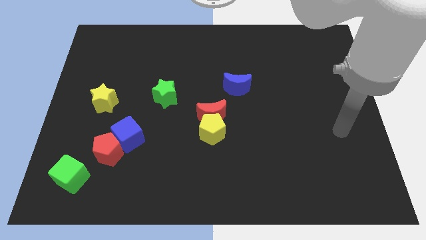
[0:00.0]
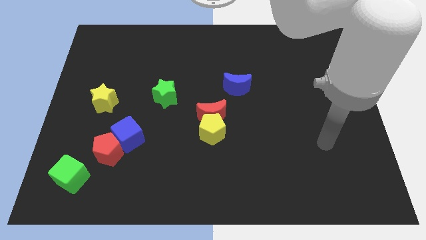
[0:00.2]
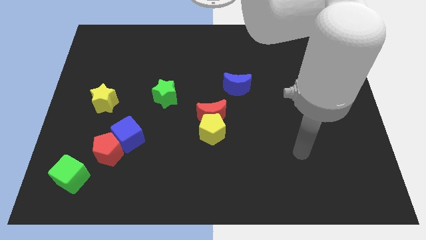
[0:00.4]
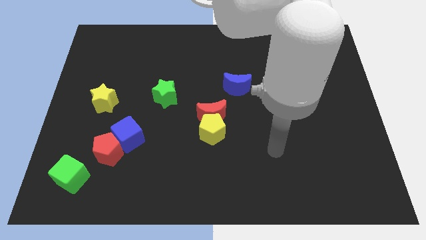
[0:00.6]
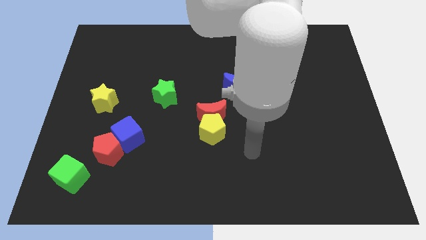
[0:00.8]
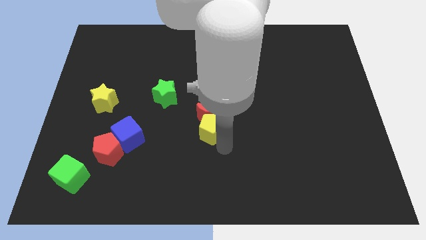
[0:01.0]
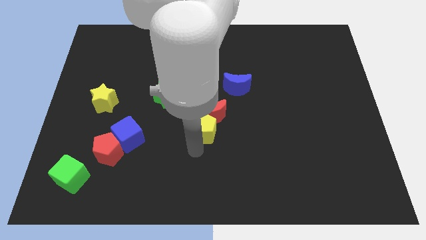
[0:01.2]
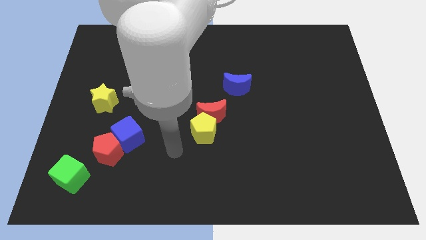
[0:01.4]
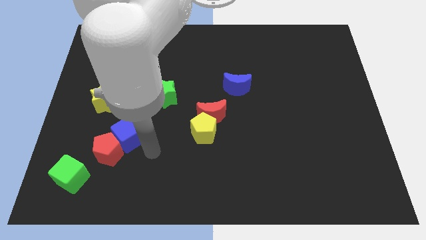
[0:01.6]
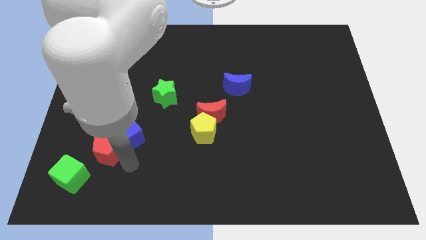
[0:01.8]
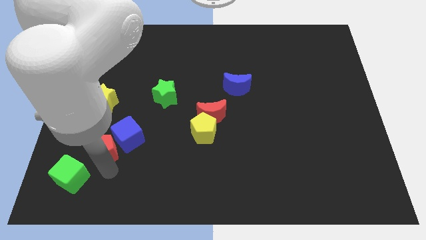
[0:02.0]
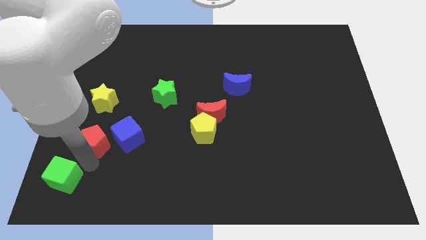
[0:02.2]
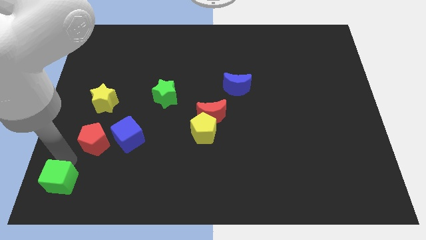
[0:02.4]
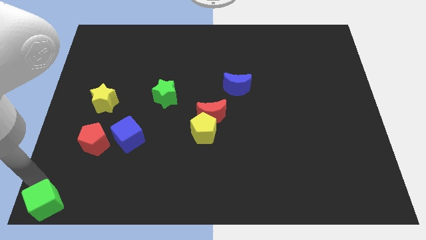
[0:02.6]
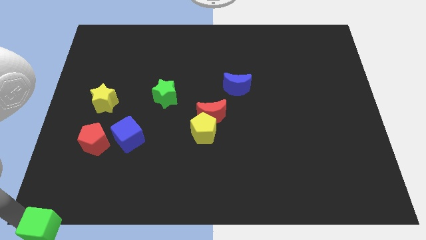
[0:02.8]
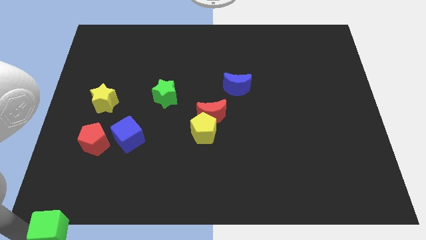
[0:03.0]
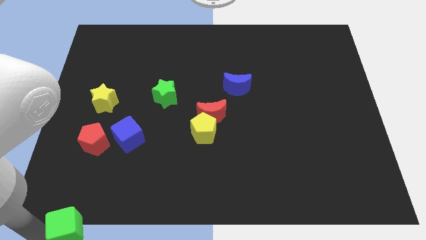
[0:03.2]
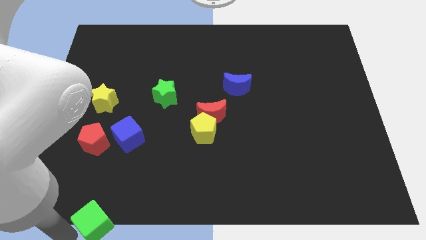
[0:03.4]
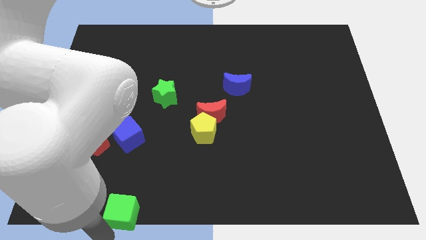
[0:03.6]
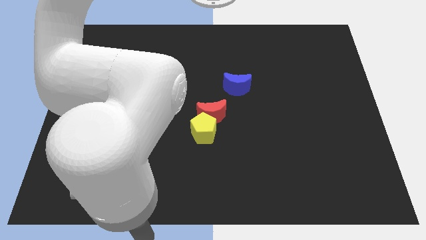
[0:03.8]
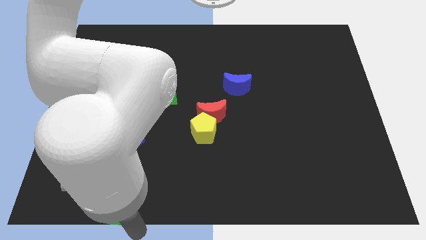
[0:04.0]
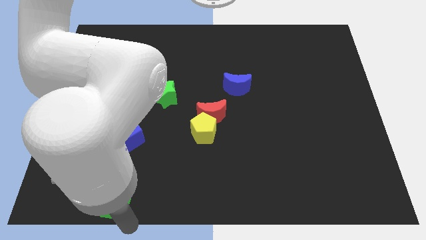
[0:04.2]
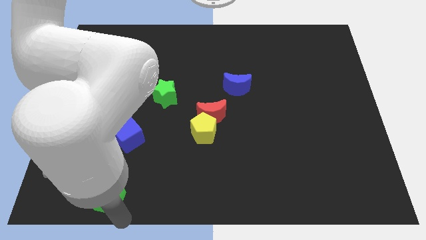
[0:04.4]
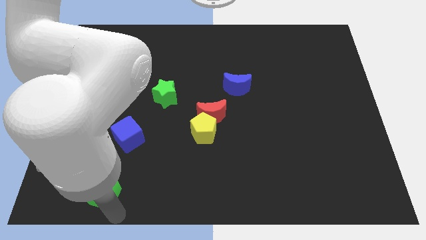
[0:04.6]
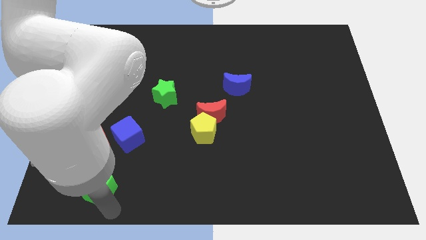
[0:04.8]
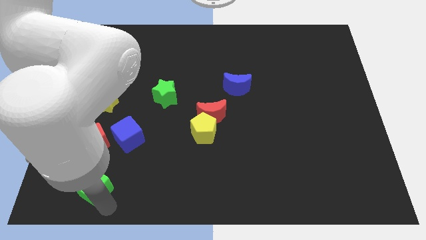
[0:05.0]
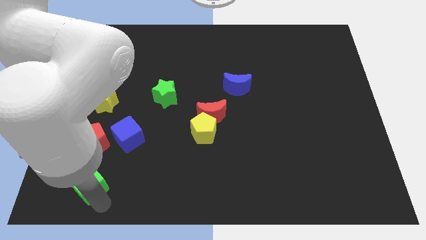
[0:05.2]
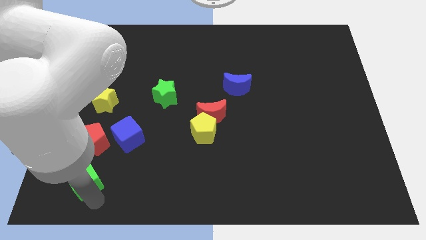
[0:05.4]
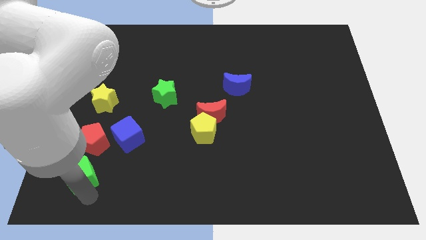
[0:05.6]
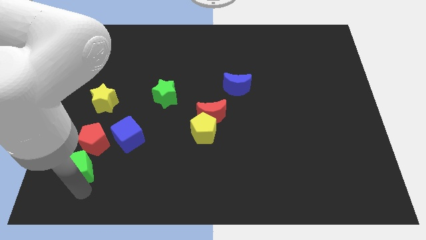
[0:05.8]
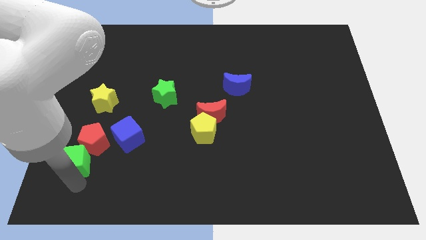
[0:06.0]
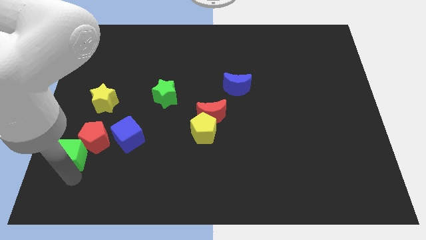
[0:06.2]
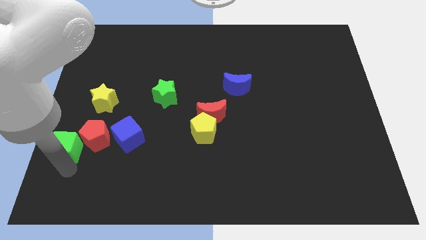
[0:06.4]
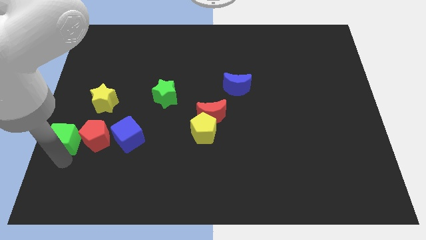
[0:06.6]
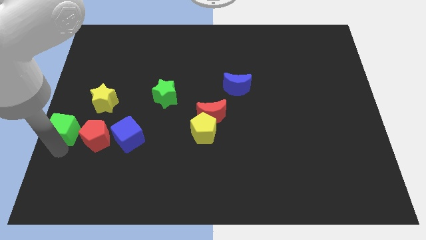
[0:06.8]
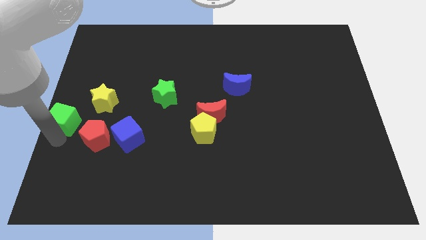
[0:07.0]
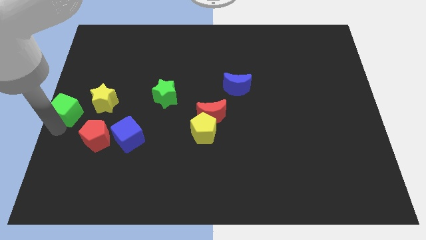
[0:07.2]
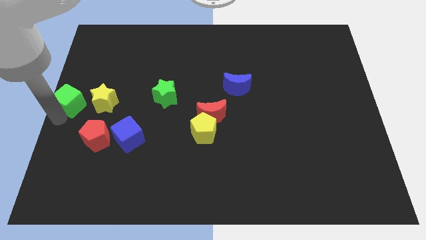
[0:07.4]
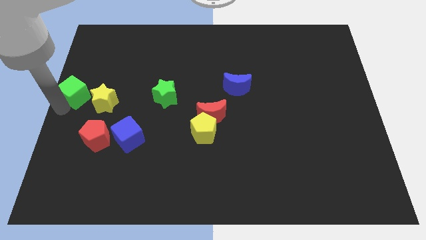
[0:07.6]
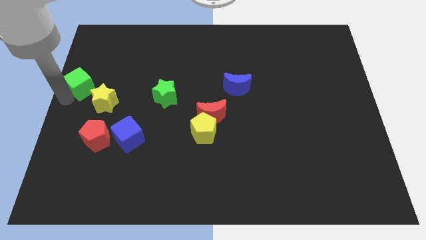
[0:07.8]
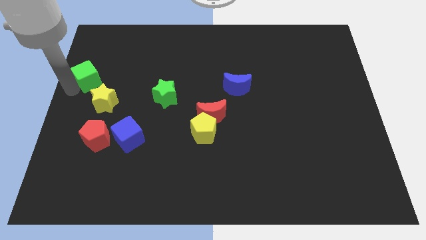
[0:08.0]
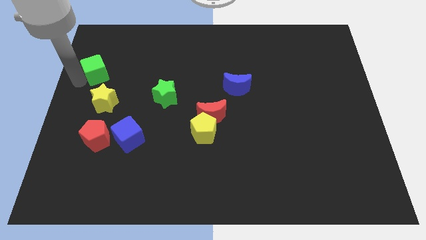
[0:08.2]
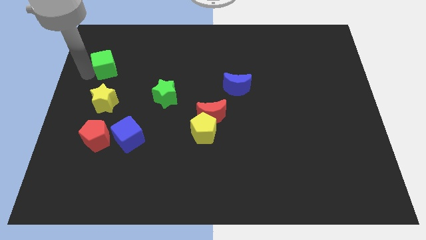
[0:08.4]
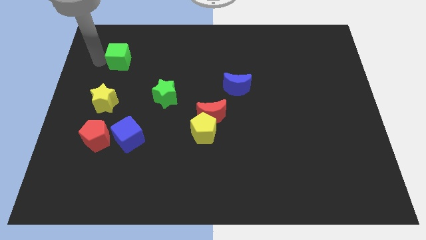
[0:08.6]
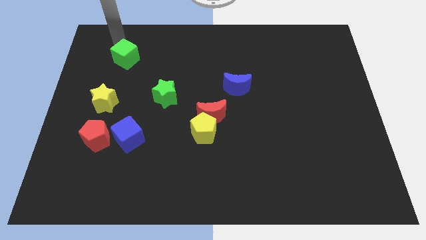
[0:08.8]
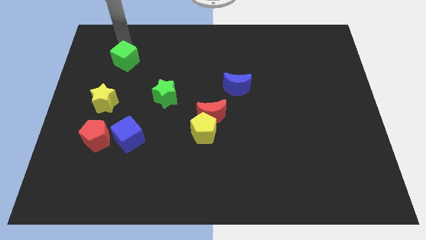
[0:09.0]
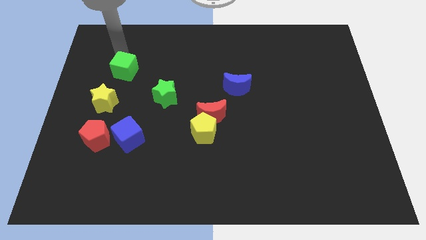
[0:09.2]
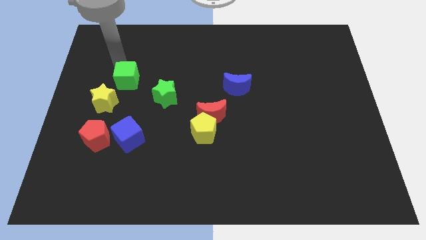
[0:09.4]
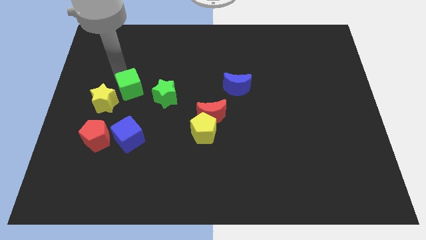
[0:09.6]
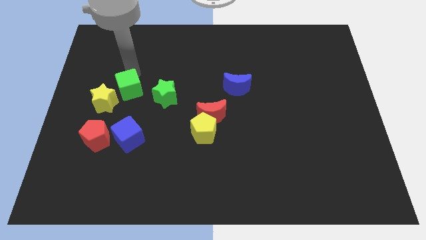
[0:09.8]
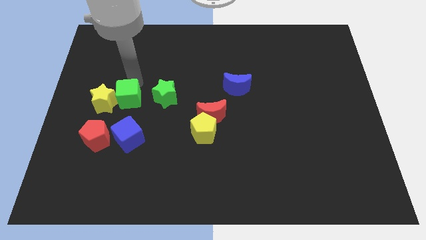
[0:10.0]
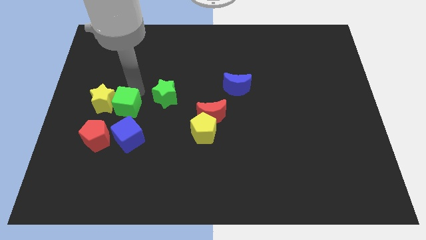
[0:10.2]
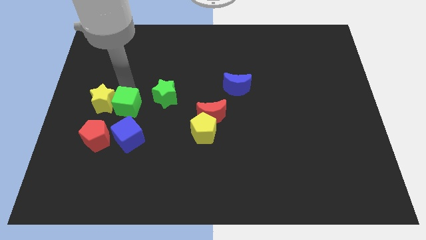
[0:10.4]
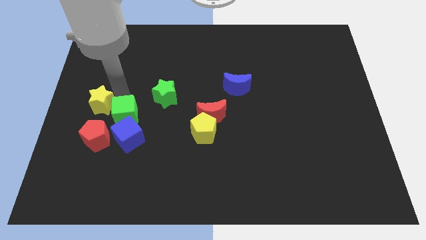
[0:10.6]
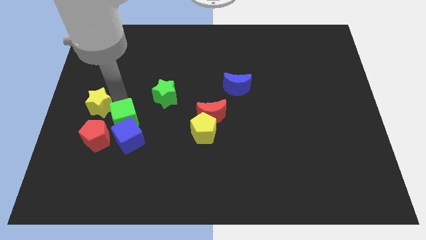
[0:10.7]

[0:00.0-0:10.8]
move the green cube close to the blue cube

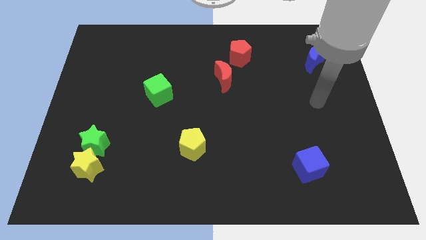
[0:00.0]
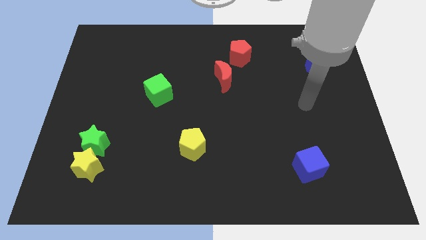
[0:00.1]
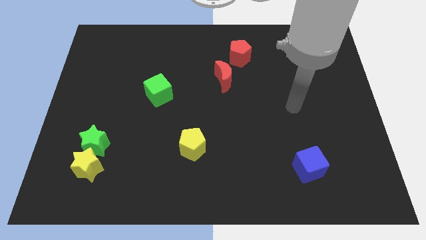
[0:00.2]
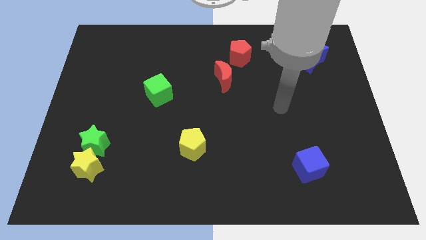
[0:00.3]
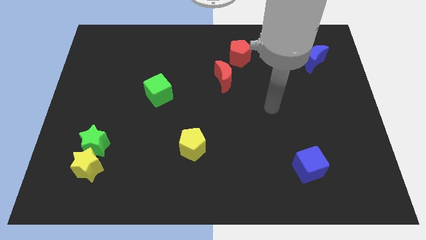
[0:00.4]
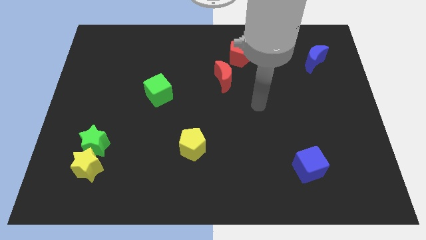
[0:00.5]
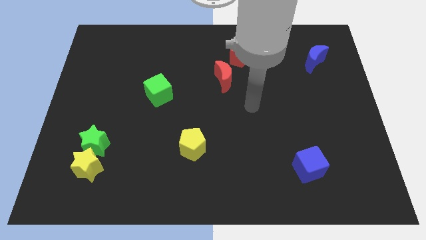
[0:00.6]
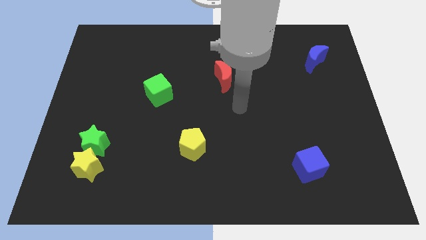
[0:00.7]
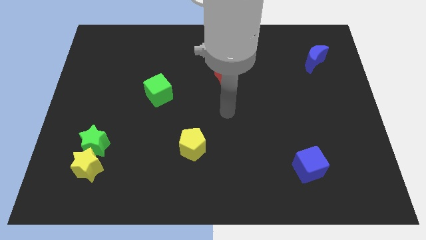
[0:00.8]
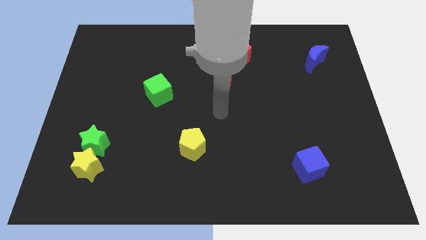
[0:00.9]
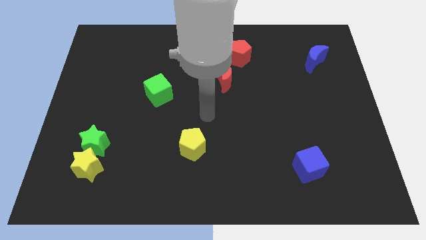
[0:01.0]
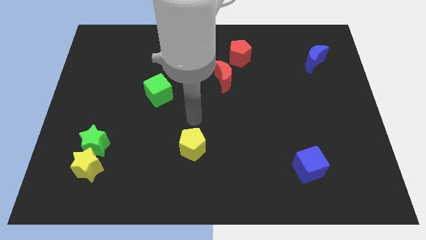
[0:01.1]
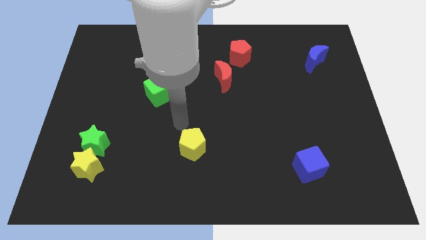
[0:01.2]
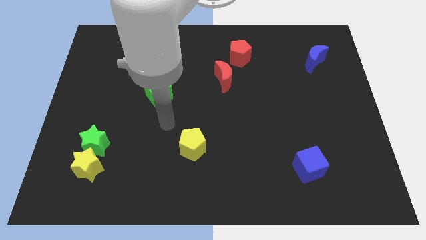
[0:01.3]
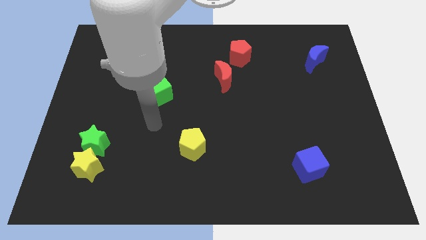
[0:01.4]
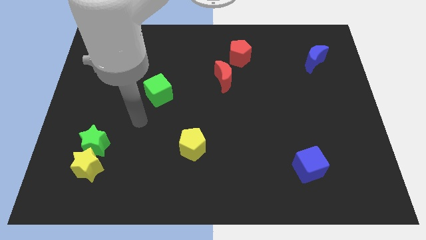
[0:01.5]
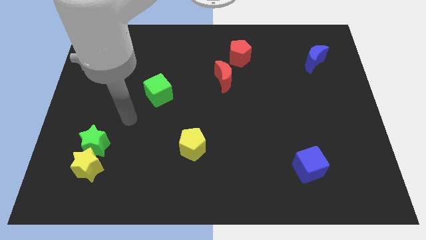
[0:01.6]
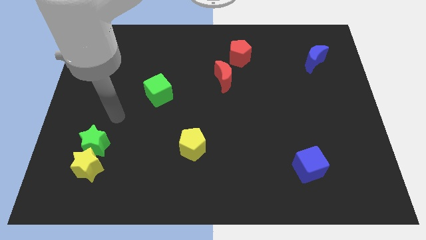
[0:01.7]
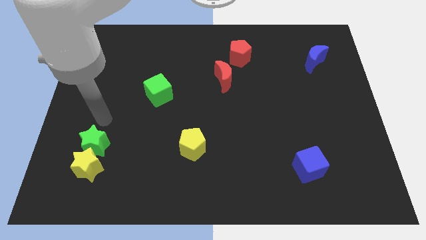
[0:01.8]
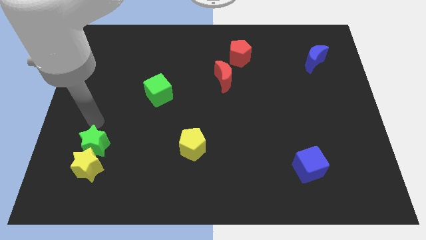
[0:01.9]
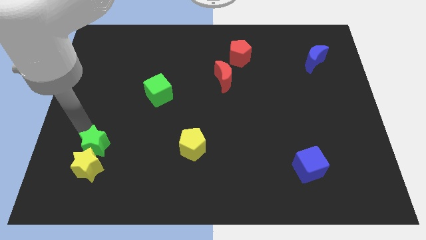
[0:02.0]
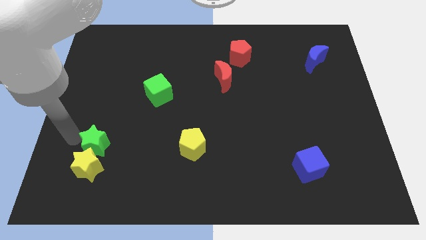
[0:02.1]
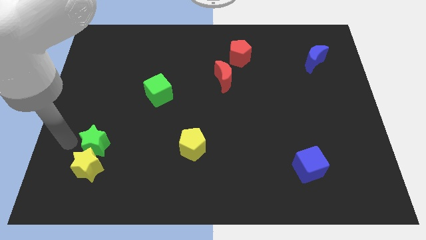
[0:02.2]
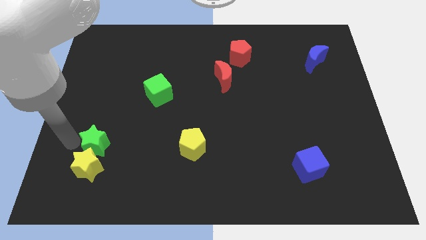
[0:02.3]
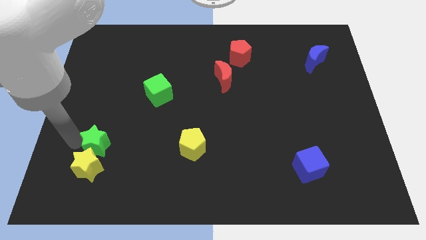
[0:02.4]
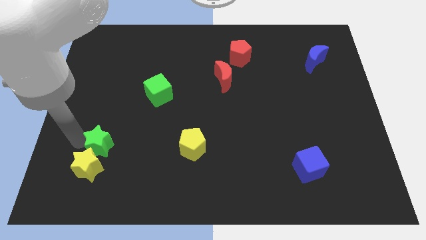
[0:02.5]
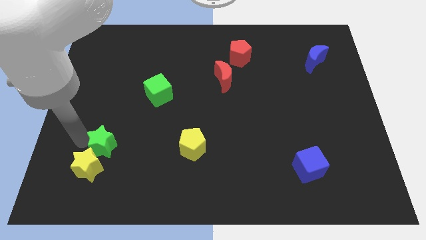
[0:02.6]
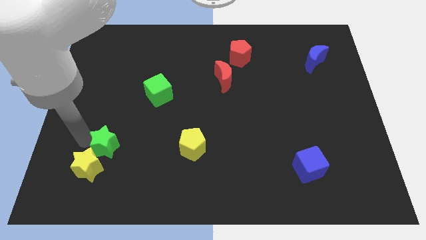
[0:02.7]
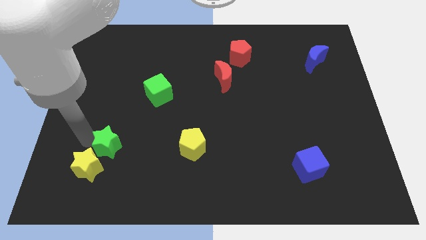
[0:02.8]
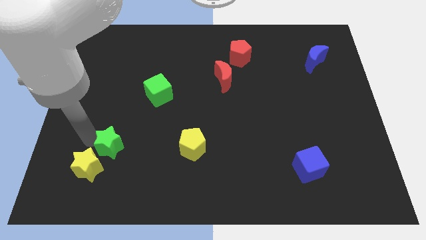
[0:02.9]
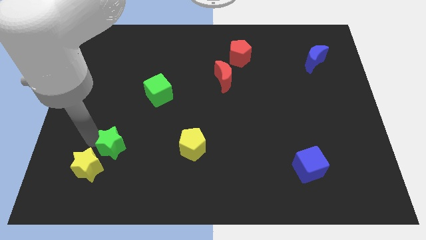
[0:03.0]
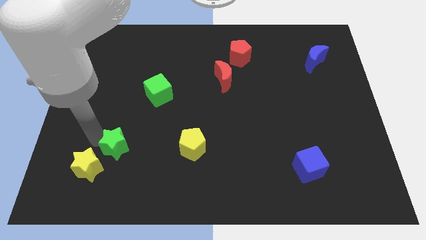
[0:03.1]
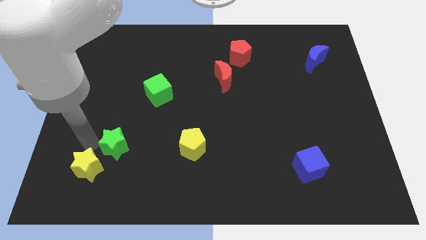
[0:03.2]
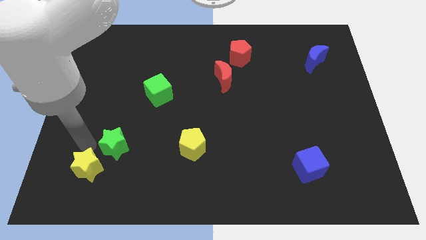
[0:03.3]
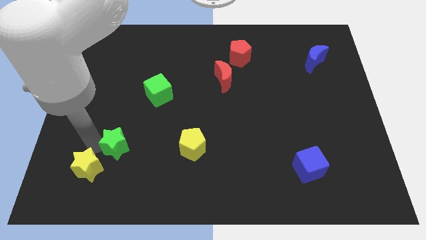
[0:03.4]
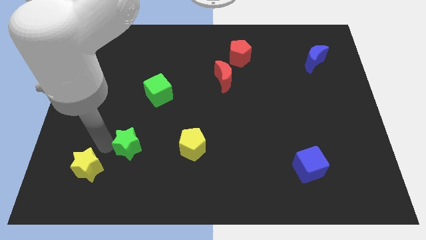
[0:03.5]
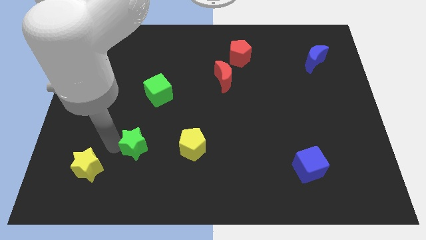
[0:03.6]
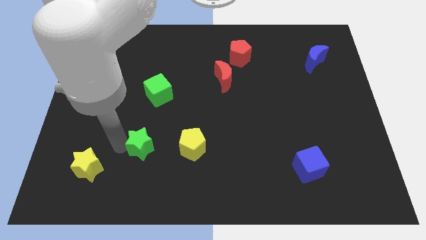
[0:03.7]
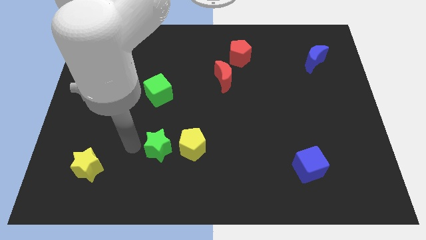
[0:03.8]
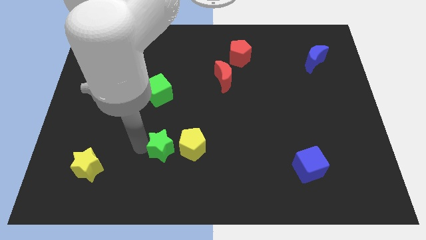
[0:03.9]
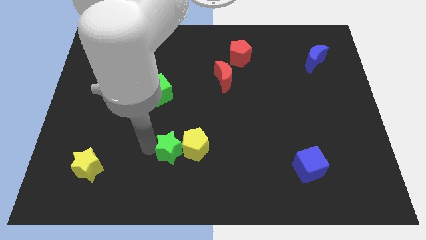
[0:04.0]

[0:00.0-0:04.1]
slide the green star towards the yellow pentagon
